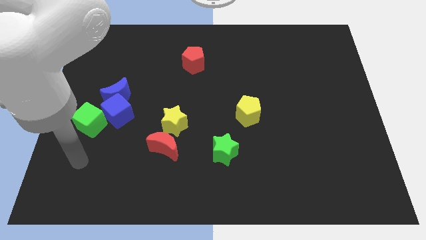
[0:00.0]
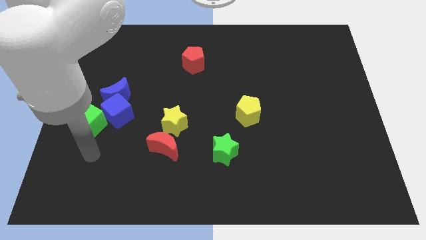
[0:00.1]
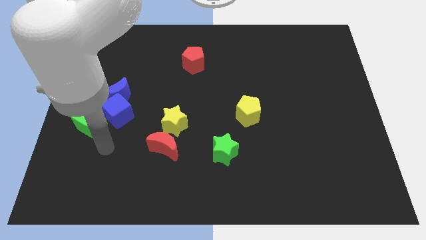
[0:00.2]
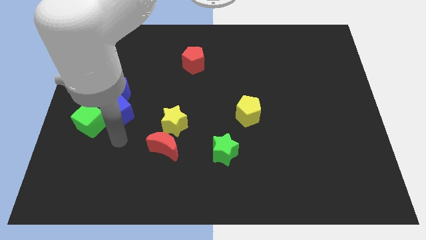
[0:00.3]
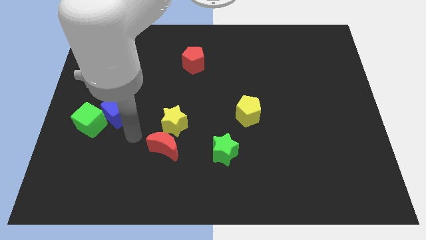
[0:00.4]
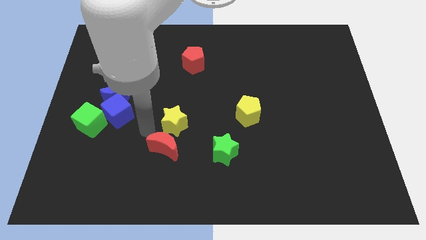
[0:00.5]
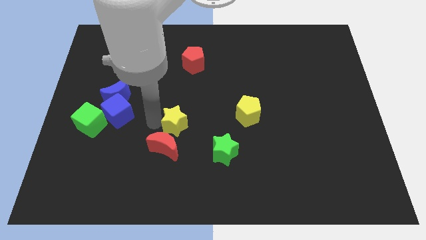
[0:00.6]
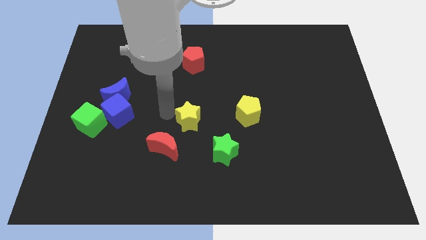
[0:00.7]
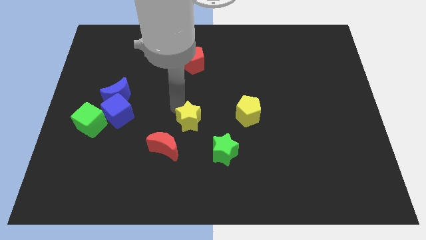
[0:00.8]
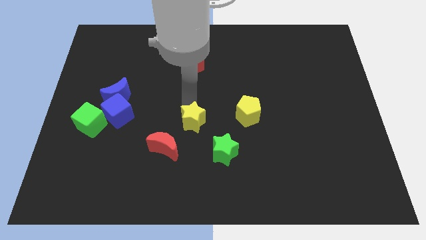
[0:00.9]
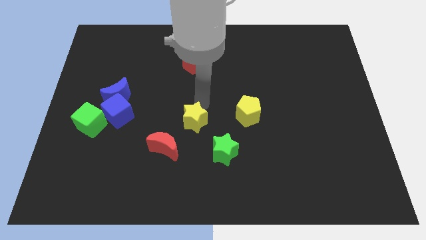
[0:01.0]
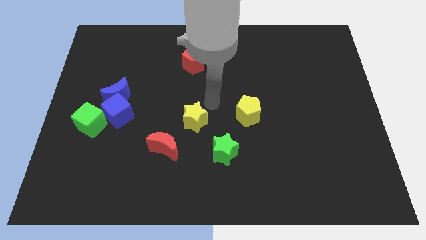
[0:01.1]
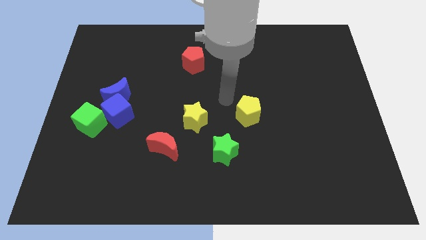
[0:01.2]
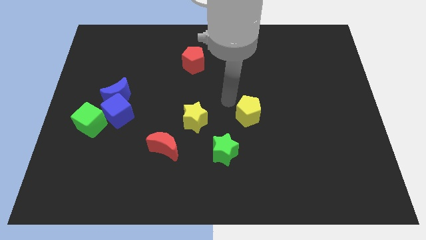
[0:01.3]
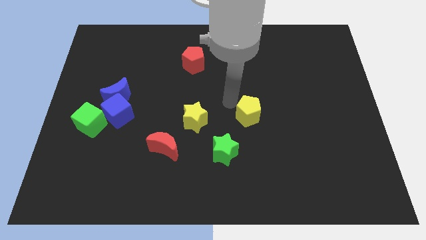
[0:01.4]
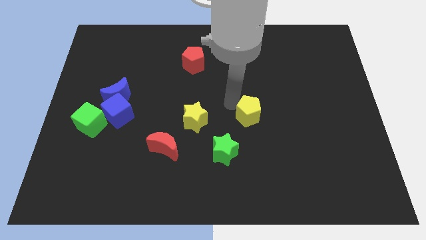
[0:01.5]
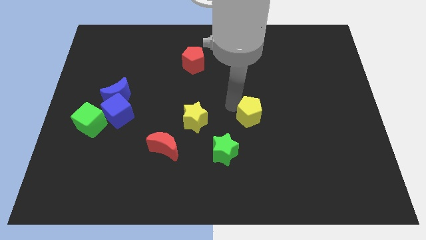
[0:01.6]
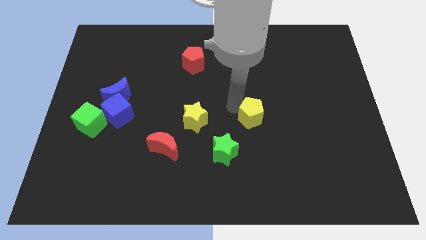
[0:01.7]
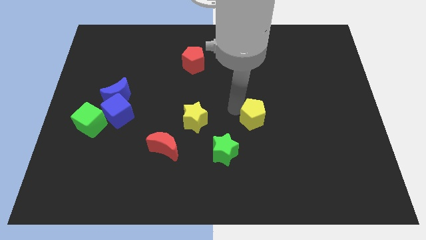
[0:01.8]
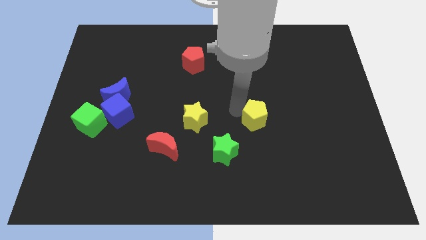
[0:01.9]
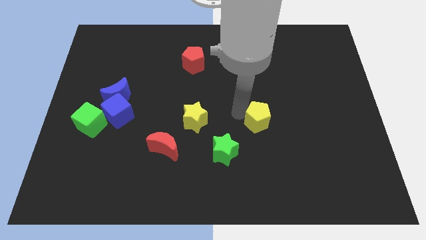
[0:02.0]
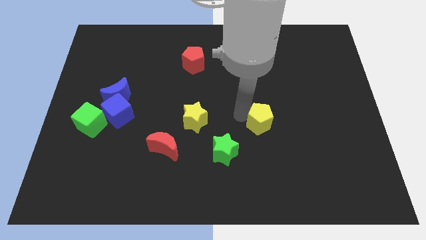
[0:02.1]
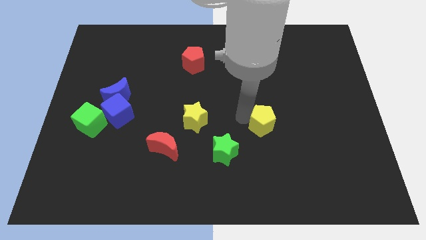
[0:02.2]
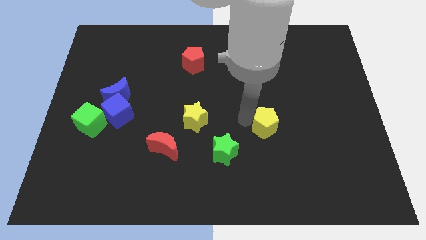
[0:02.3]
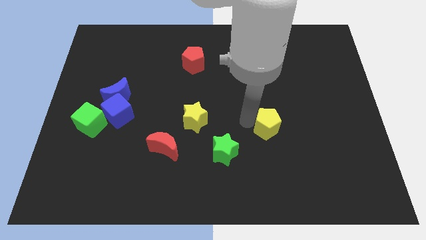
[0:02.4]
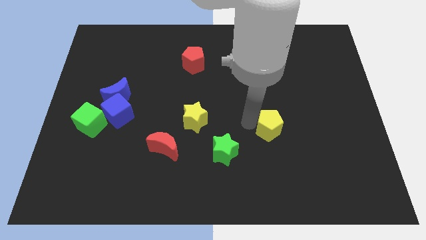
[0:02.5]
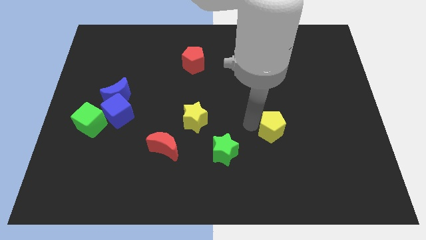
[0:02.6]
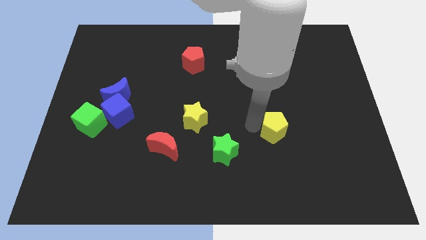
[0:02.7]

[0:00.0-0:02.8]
move the yellow pentagon diagonally downwards and to the right a little

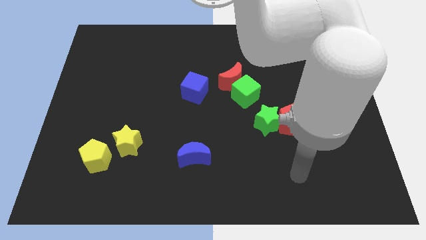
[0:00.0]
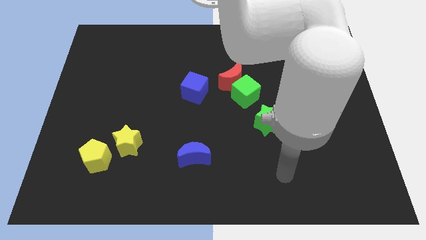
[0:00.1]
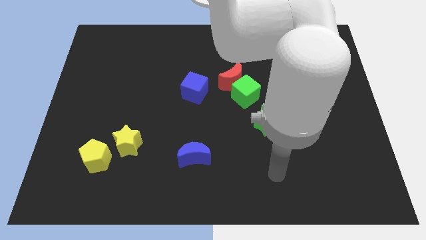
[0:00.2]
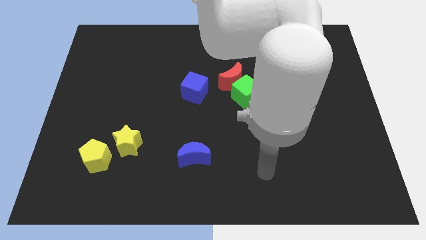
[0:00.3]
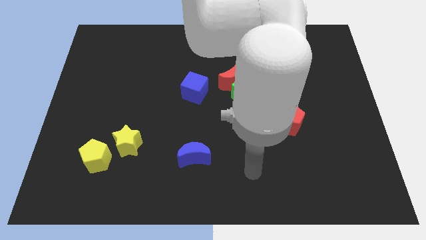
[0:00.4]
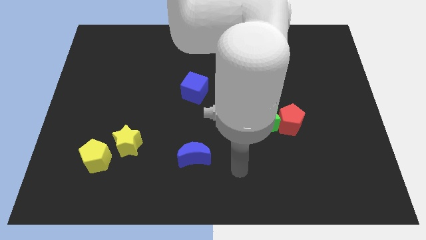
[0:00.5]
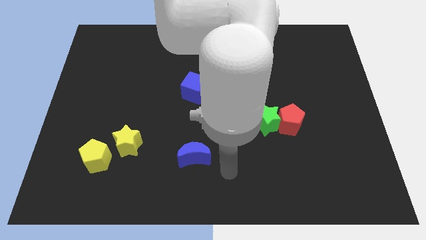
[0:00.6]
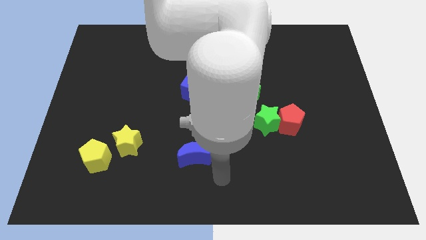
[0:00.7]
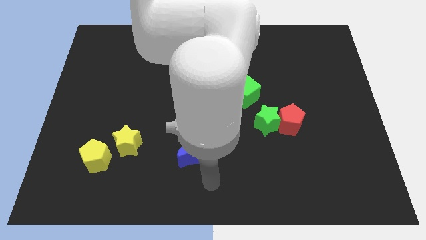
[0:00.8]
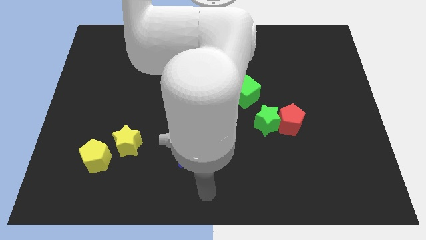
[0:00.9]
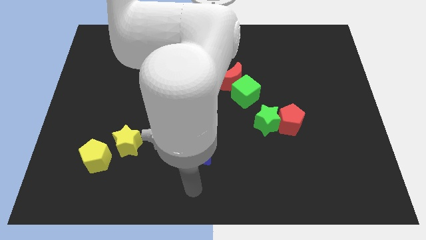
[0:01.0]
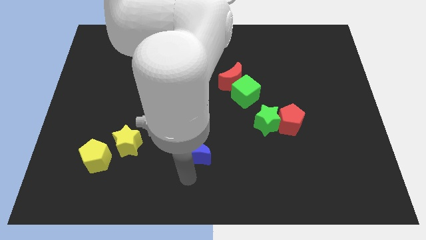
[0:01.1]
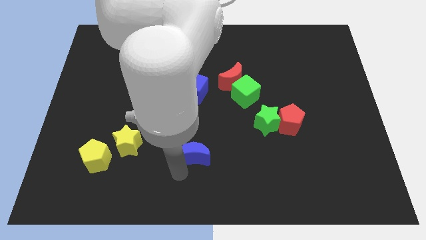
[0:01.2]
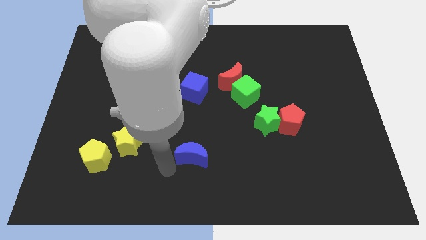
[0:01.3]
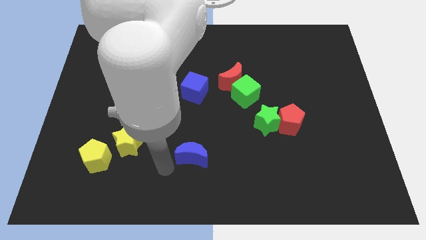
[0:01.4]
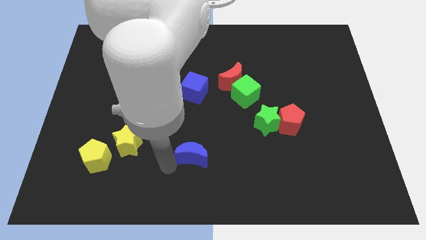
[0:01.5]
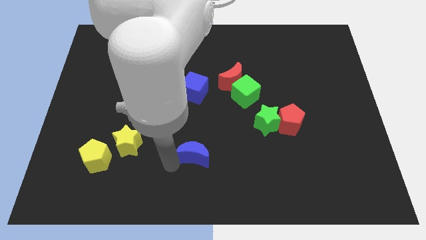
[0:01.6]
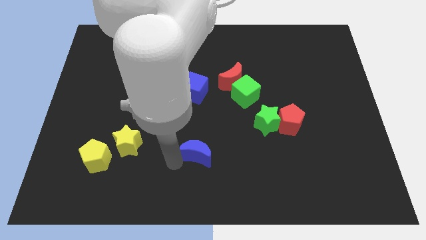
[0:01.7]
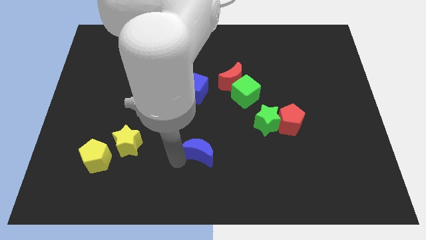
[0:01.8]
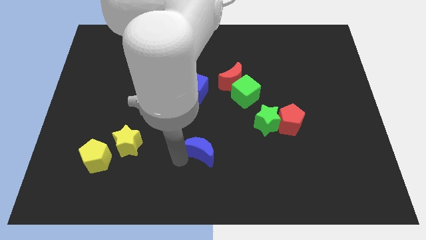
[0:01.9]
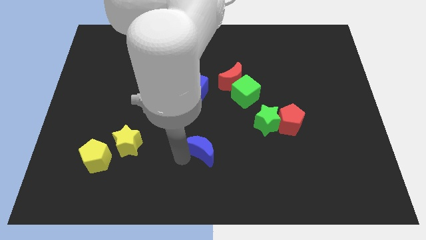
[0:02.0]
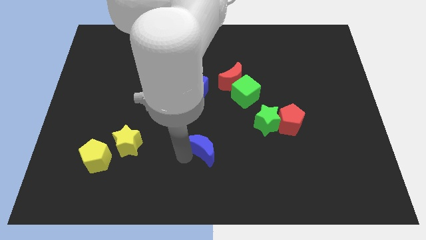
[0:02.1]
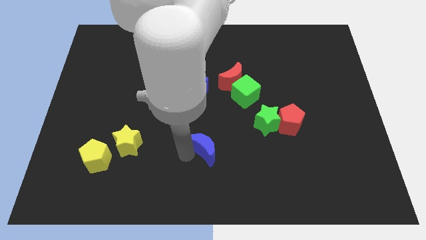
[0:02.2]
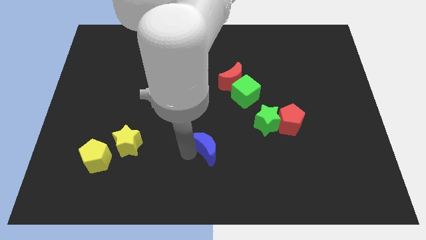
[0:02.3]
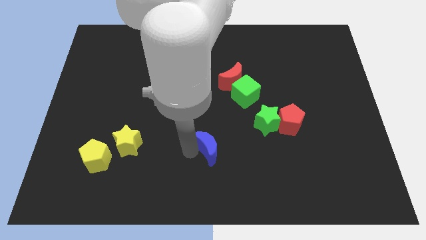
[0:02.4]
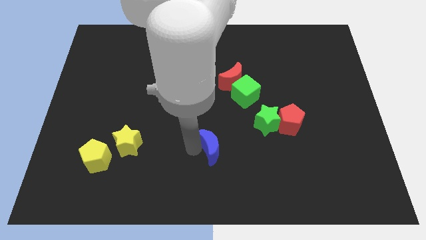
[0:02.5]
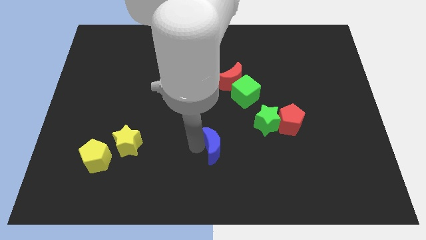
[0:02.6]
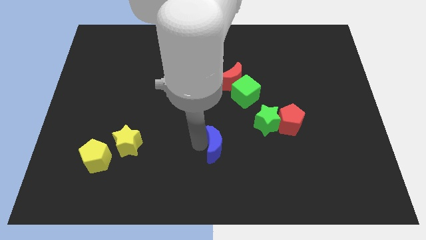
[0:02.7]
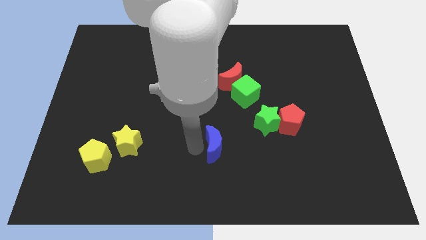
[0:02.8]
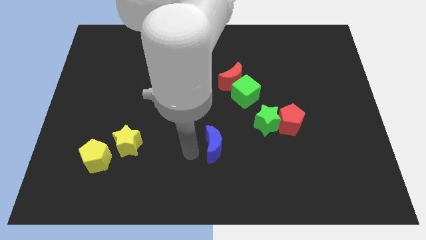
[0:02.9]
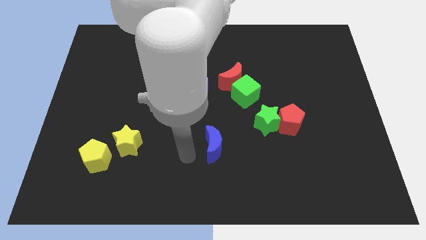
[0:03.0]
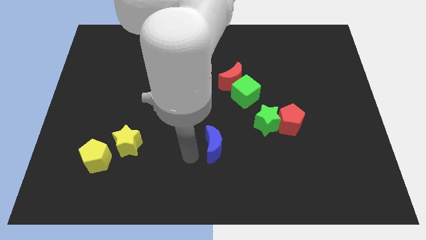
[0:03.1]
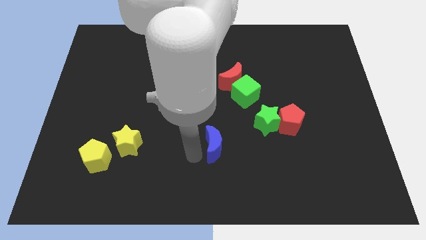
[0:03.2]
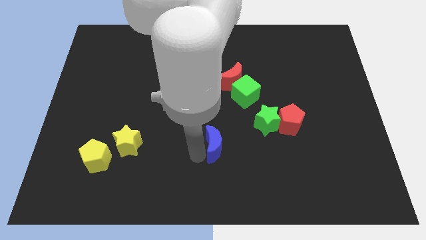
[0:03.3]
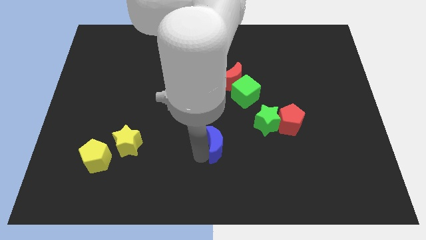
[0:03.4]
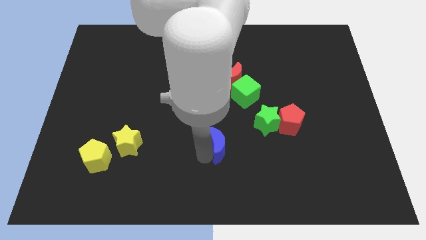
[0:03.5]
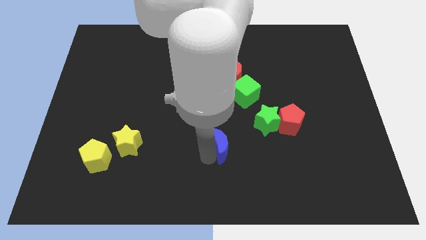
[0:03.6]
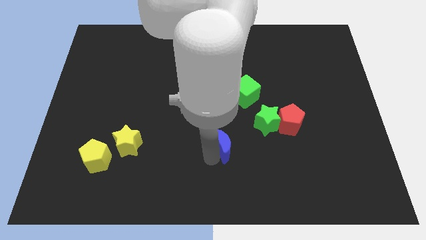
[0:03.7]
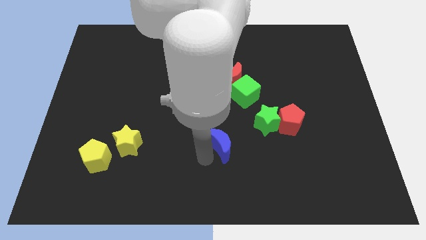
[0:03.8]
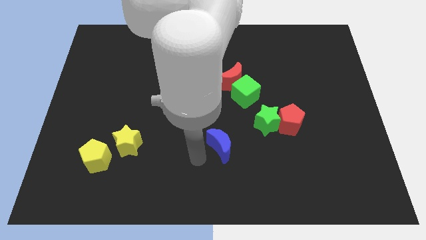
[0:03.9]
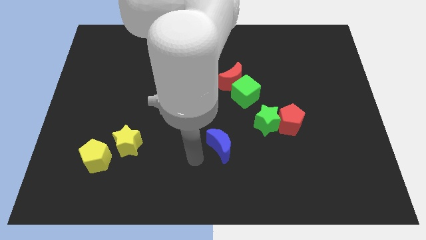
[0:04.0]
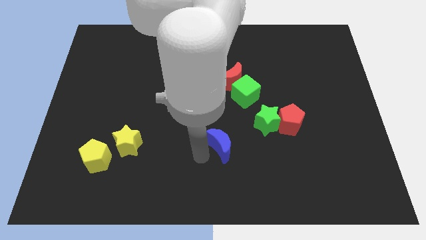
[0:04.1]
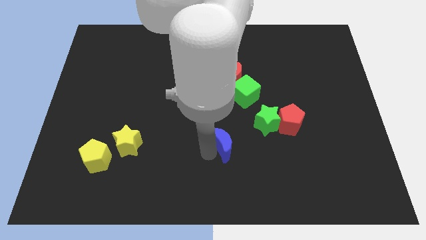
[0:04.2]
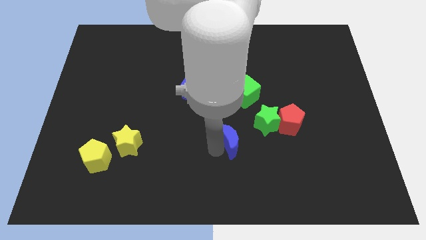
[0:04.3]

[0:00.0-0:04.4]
slide the blue moon up and then right a little

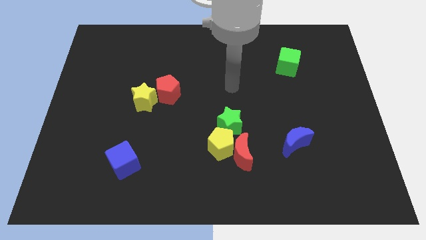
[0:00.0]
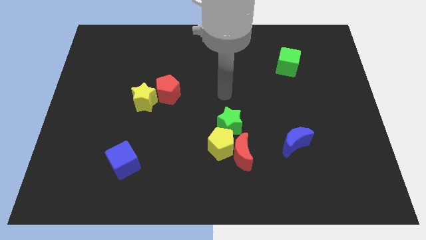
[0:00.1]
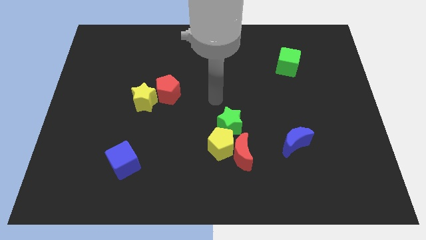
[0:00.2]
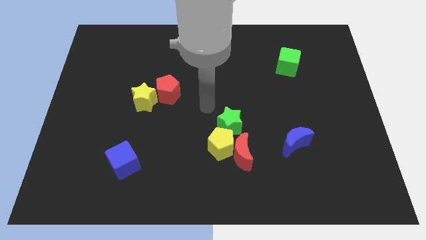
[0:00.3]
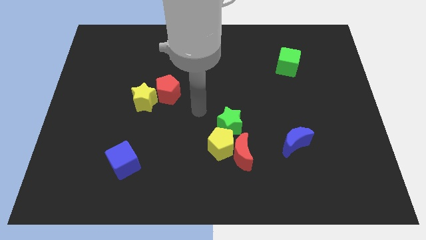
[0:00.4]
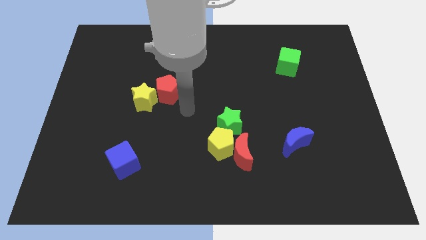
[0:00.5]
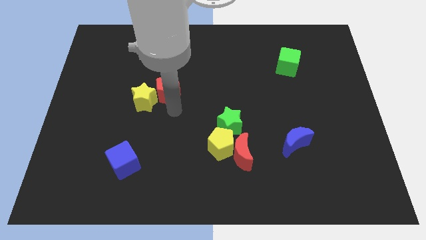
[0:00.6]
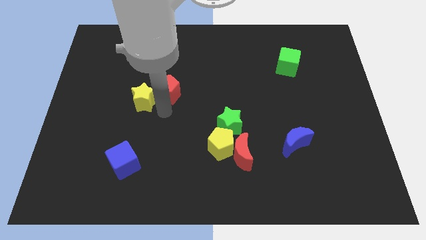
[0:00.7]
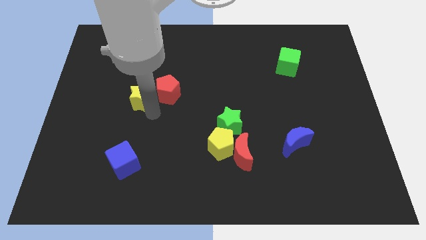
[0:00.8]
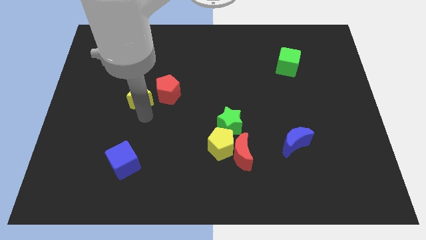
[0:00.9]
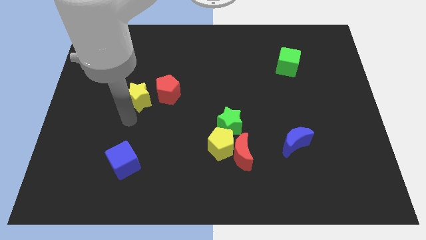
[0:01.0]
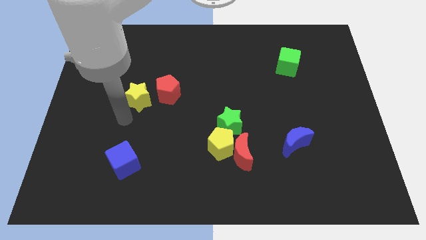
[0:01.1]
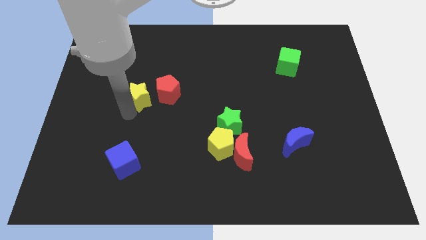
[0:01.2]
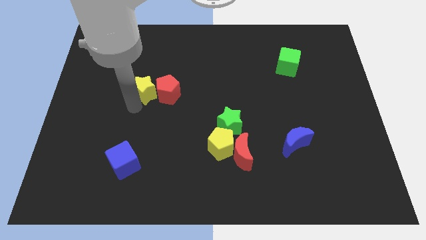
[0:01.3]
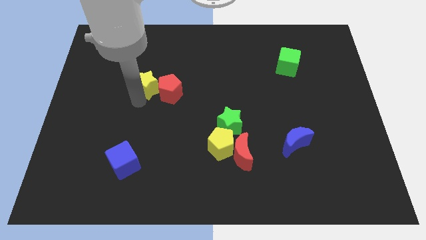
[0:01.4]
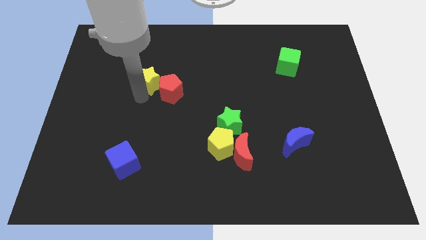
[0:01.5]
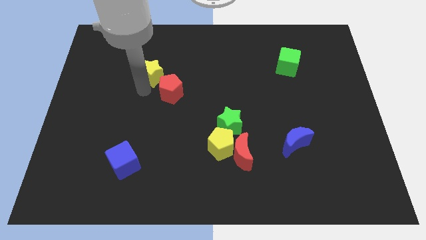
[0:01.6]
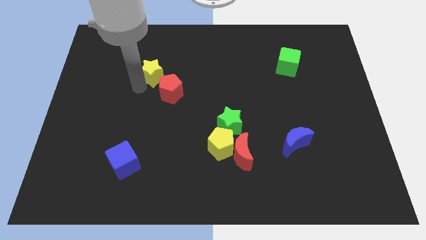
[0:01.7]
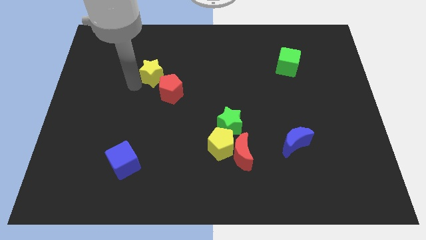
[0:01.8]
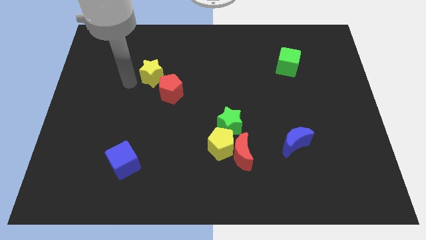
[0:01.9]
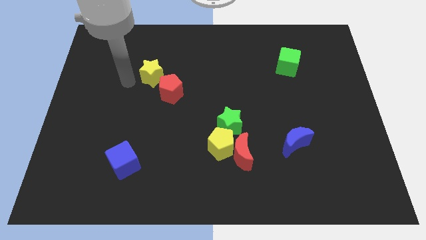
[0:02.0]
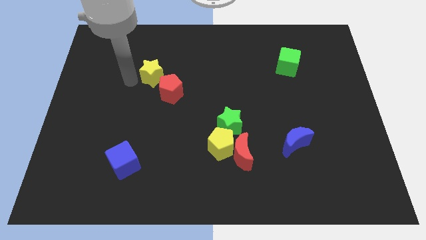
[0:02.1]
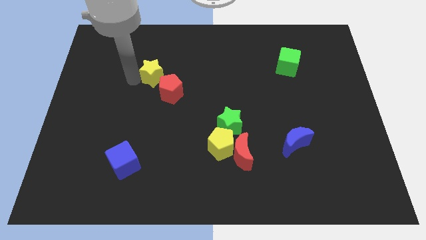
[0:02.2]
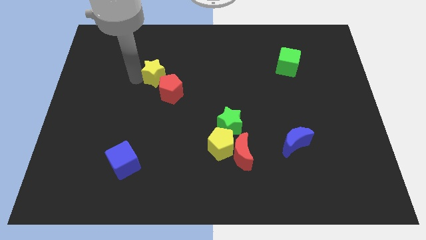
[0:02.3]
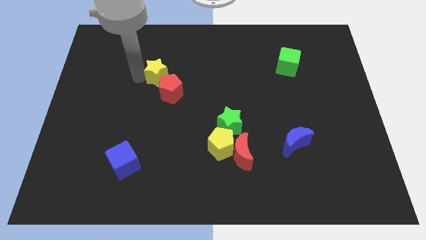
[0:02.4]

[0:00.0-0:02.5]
slightly move the yellow star upwards and then right
